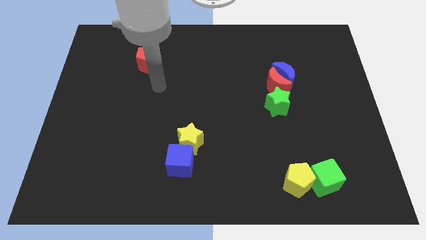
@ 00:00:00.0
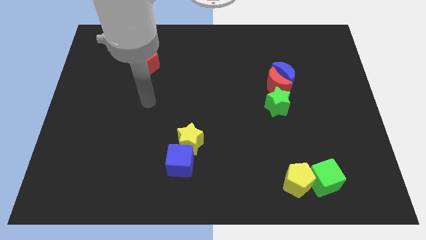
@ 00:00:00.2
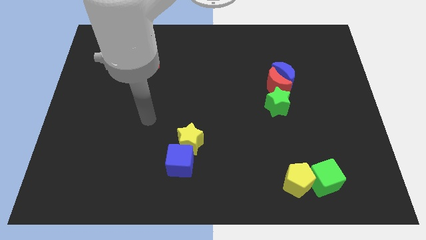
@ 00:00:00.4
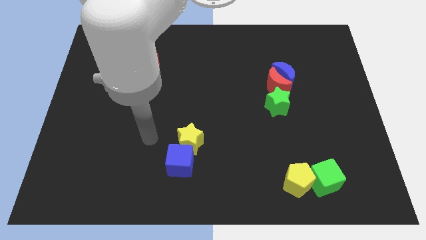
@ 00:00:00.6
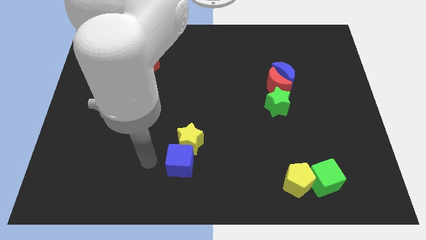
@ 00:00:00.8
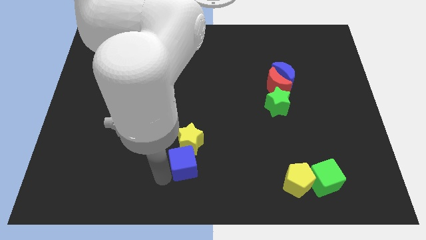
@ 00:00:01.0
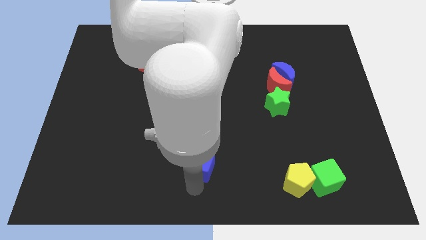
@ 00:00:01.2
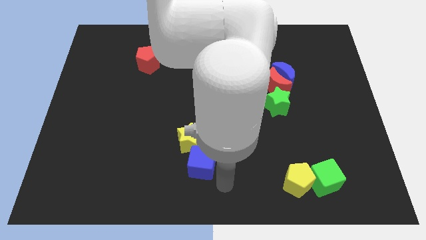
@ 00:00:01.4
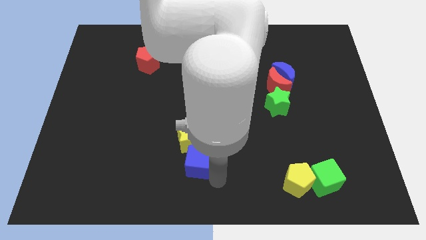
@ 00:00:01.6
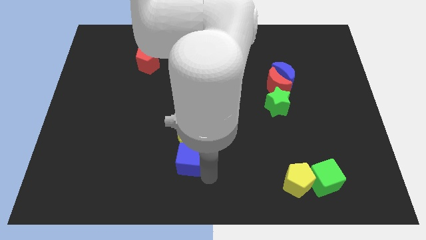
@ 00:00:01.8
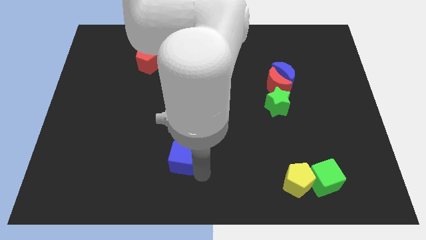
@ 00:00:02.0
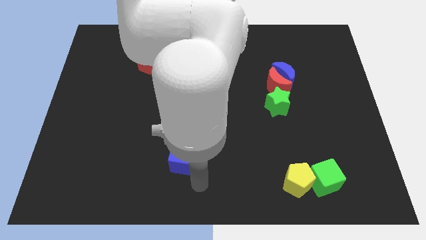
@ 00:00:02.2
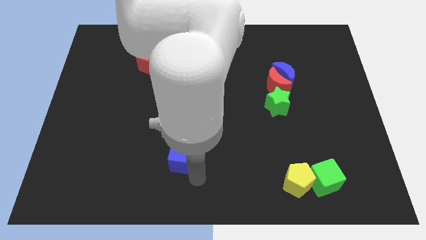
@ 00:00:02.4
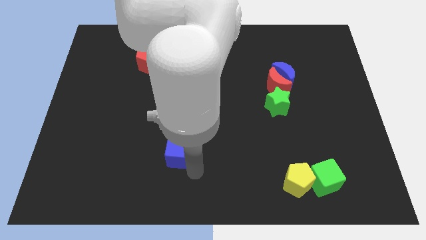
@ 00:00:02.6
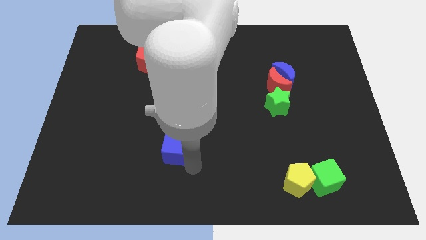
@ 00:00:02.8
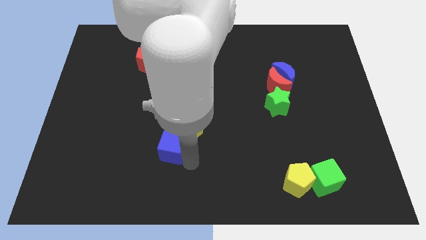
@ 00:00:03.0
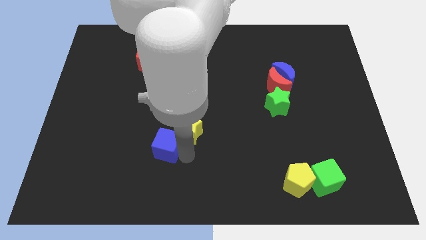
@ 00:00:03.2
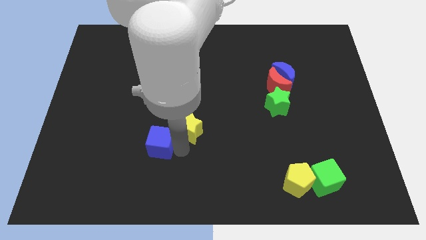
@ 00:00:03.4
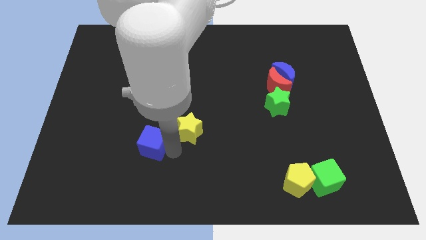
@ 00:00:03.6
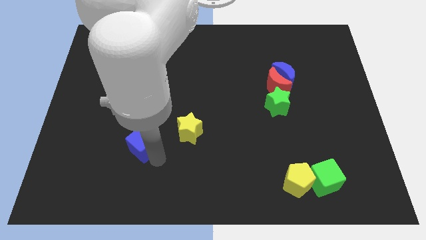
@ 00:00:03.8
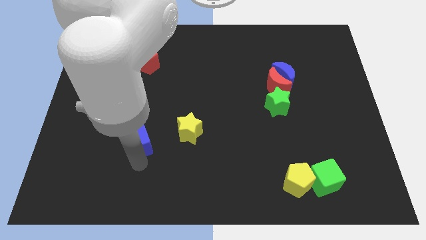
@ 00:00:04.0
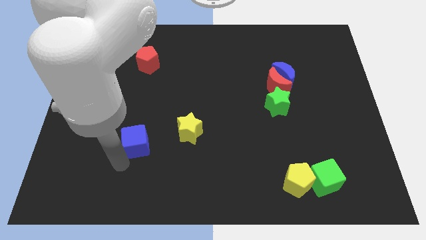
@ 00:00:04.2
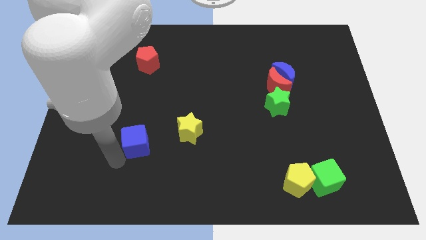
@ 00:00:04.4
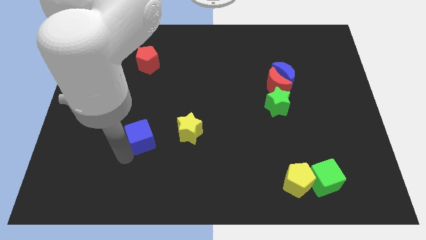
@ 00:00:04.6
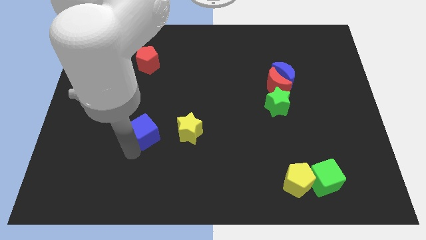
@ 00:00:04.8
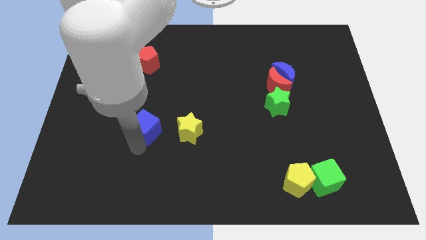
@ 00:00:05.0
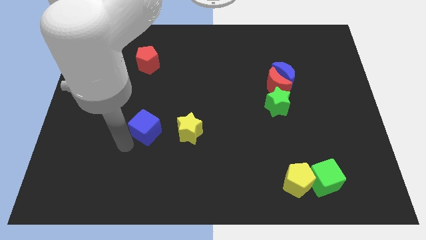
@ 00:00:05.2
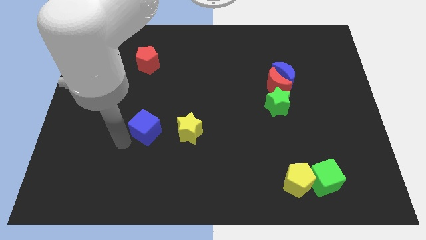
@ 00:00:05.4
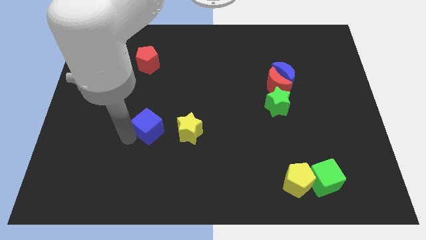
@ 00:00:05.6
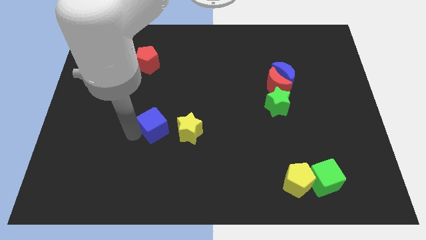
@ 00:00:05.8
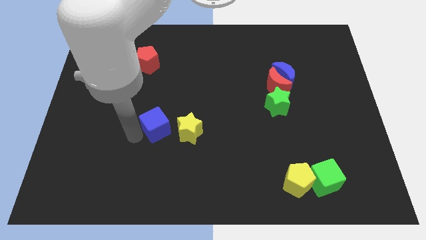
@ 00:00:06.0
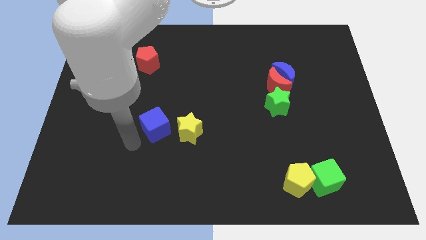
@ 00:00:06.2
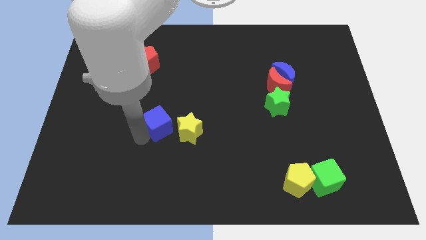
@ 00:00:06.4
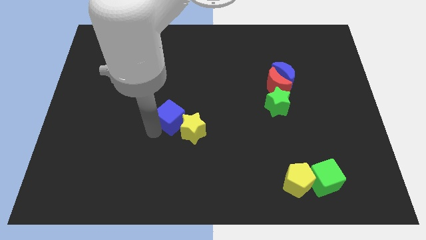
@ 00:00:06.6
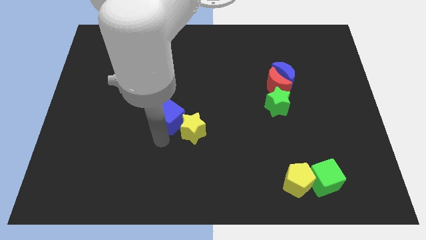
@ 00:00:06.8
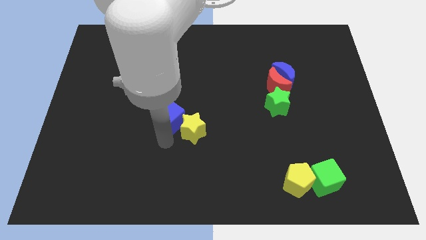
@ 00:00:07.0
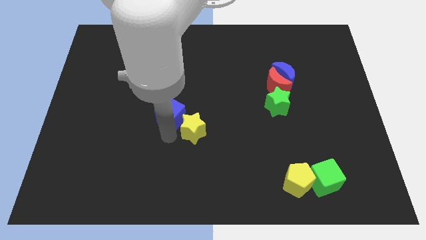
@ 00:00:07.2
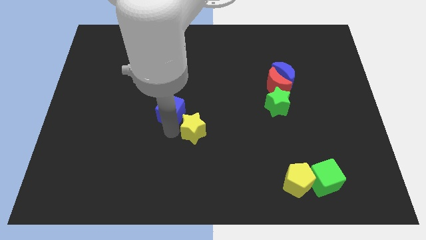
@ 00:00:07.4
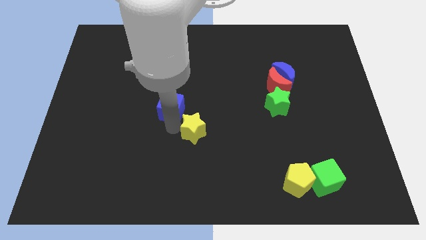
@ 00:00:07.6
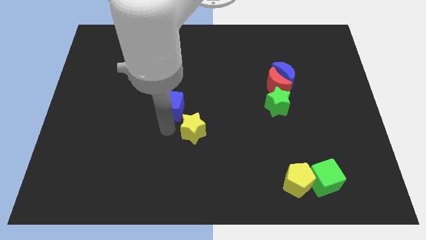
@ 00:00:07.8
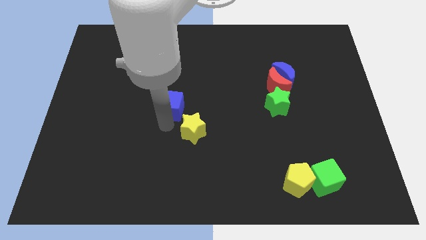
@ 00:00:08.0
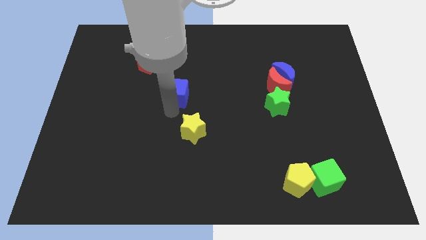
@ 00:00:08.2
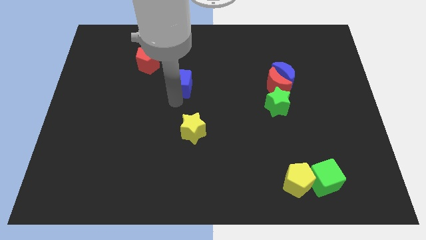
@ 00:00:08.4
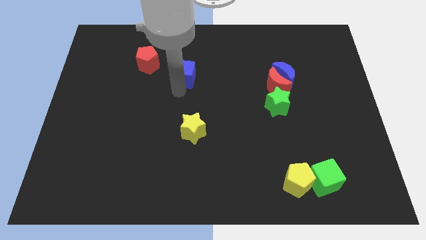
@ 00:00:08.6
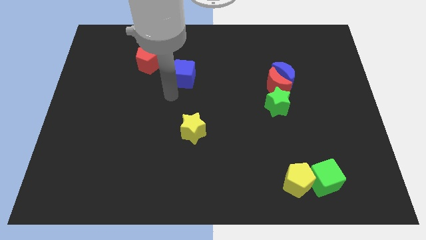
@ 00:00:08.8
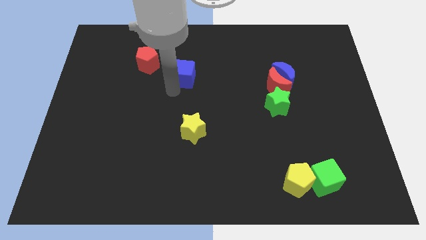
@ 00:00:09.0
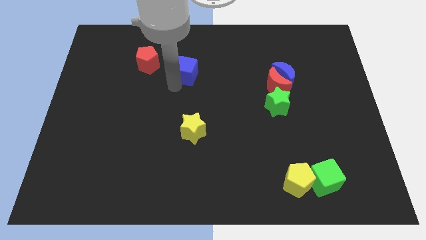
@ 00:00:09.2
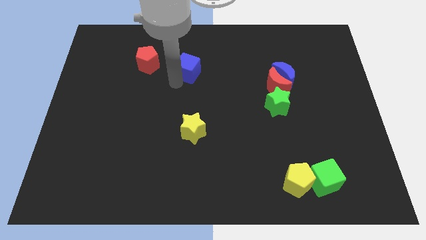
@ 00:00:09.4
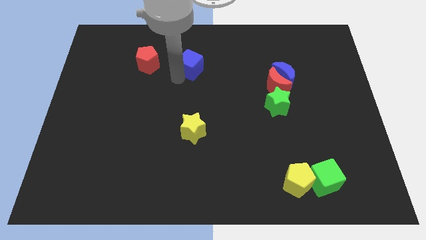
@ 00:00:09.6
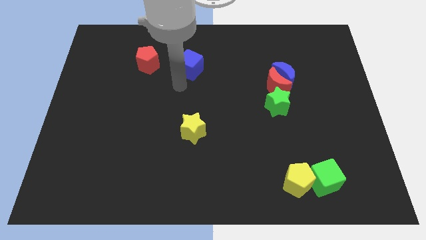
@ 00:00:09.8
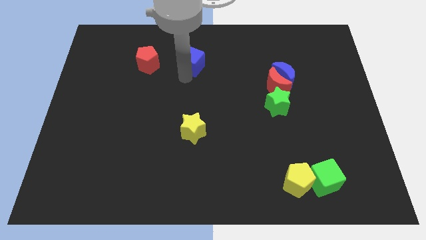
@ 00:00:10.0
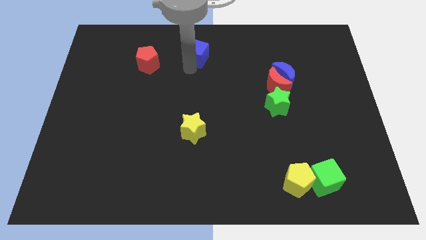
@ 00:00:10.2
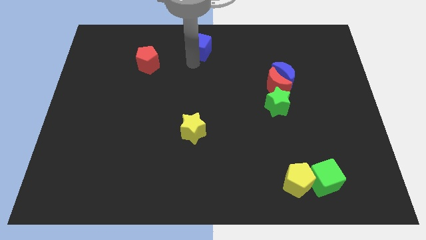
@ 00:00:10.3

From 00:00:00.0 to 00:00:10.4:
slide the blue cube to the top
